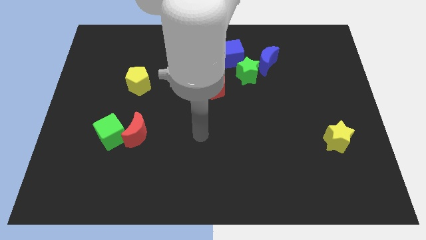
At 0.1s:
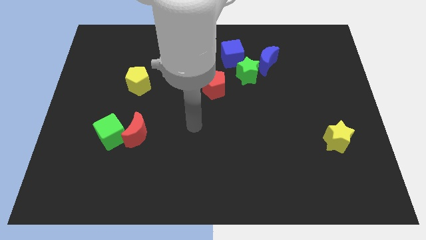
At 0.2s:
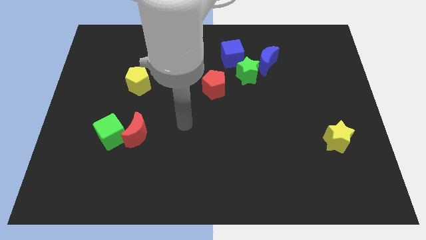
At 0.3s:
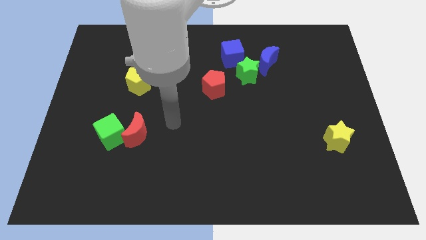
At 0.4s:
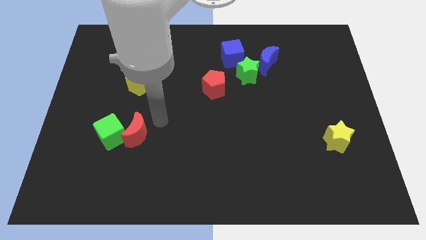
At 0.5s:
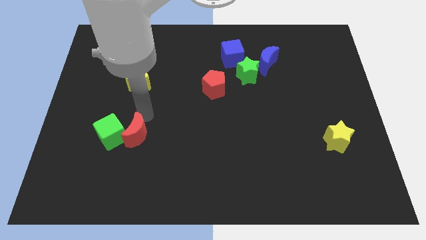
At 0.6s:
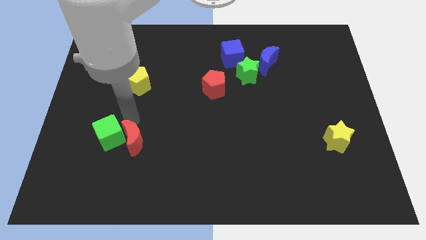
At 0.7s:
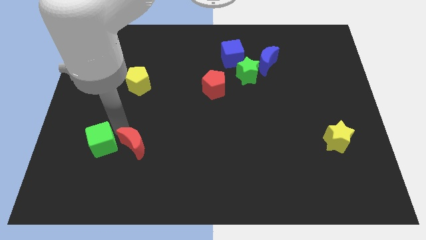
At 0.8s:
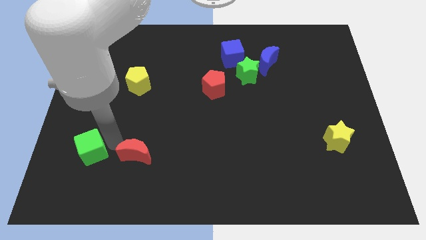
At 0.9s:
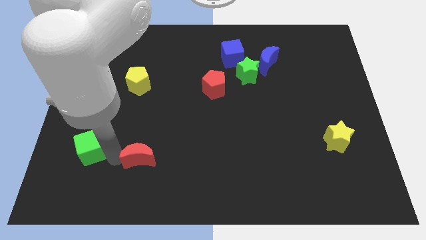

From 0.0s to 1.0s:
move the red moon away from the green cube

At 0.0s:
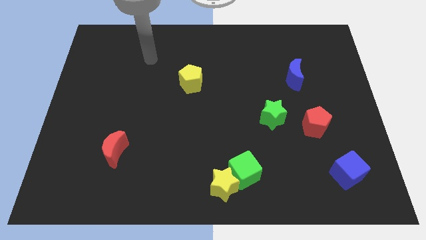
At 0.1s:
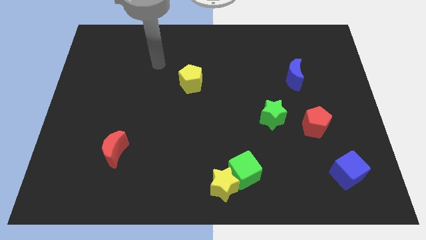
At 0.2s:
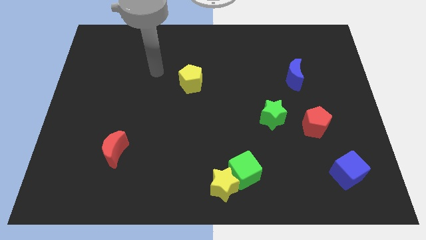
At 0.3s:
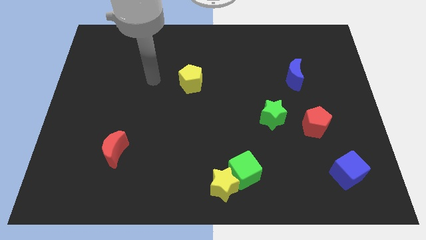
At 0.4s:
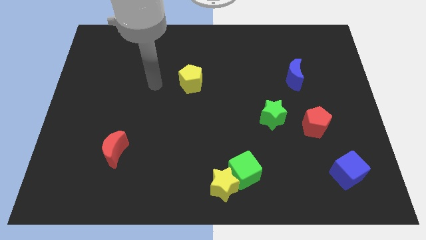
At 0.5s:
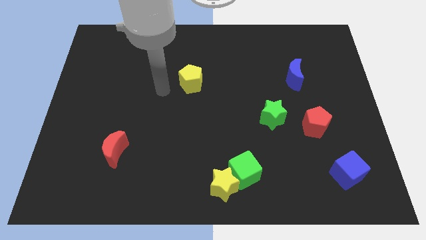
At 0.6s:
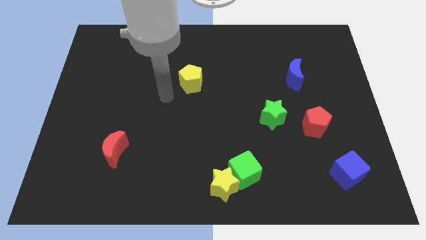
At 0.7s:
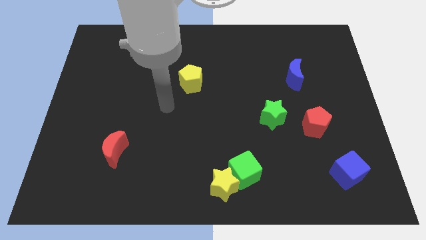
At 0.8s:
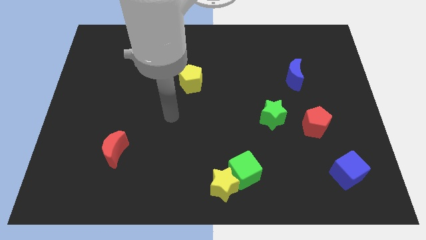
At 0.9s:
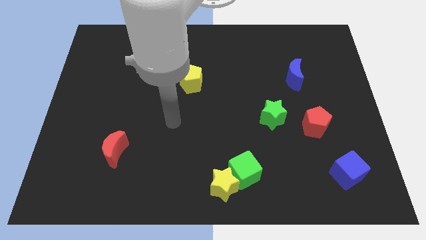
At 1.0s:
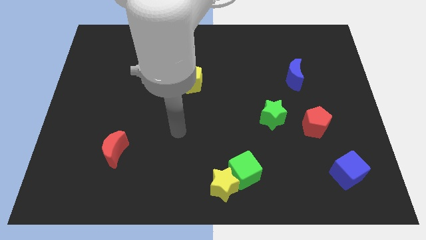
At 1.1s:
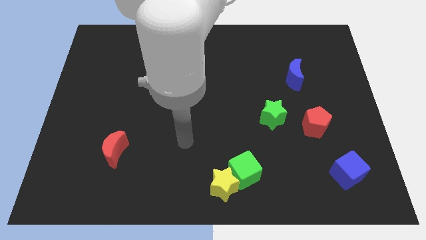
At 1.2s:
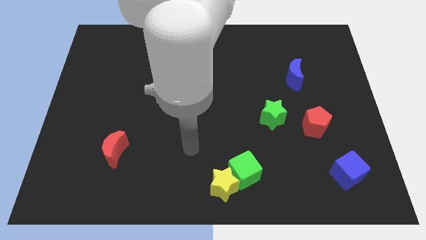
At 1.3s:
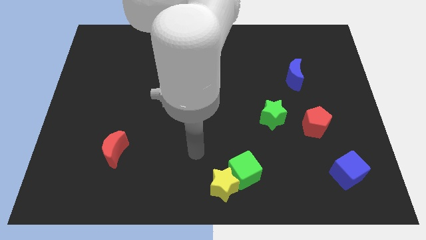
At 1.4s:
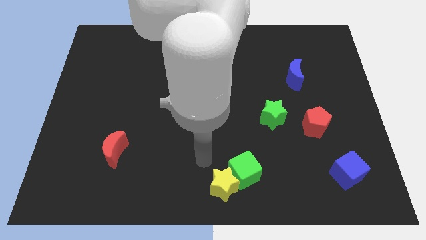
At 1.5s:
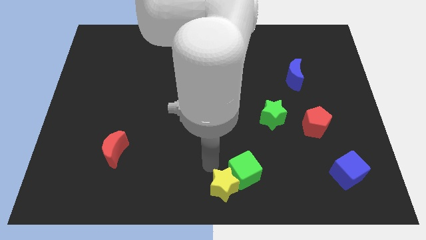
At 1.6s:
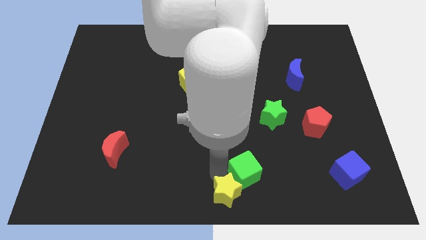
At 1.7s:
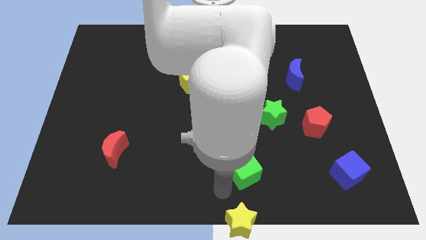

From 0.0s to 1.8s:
separate the green cube from the yellow star

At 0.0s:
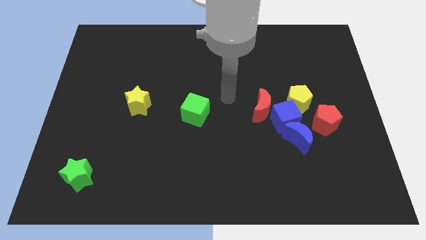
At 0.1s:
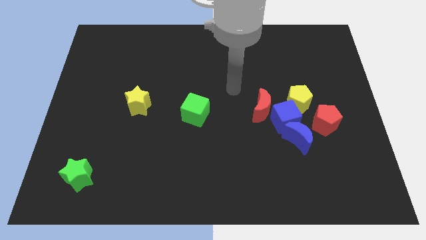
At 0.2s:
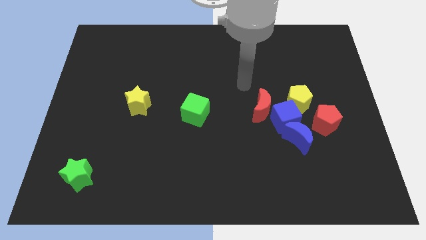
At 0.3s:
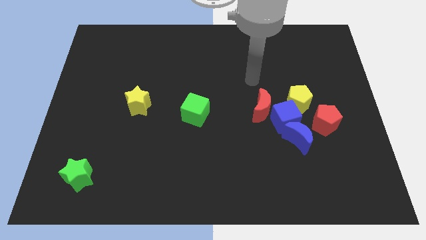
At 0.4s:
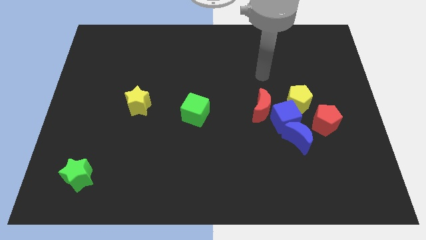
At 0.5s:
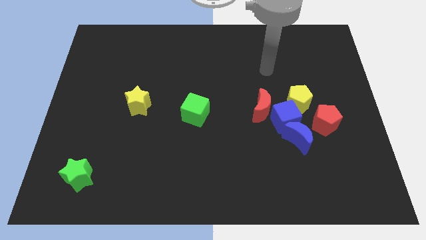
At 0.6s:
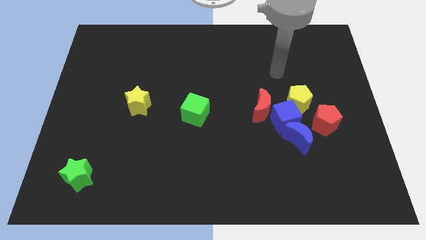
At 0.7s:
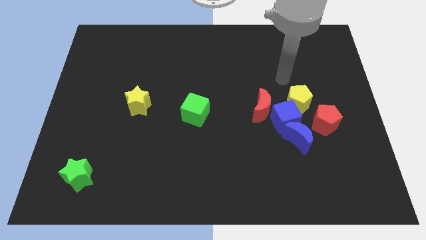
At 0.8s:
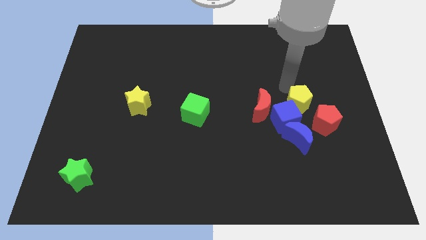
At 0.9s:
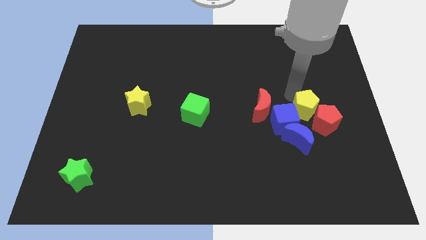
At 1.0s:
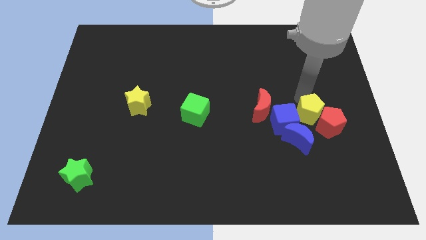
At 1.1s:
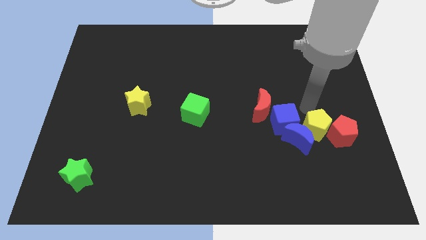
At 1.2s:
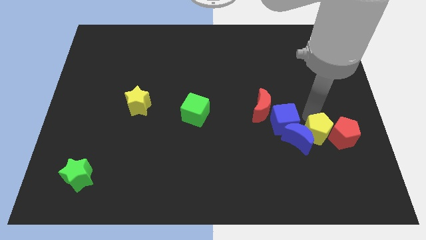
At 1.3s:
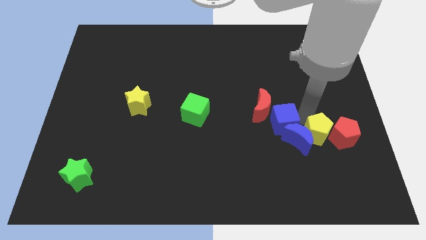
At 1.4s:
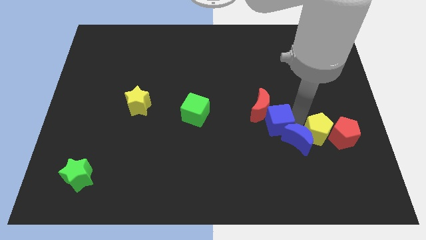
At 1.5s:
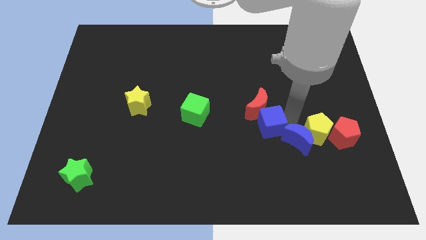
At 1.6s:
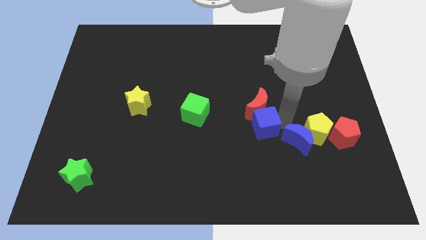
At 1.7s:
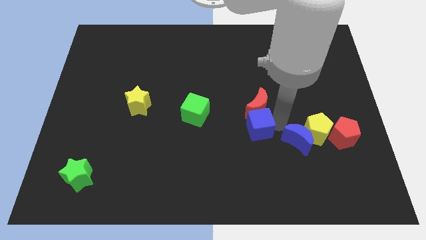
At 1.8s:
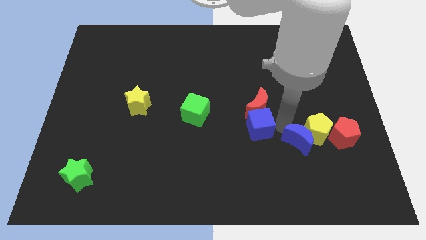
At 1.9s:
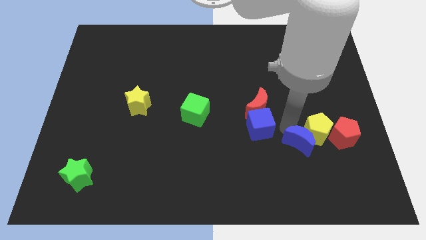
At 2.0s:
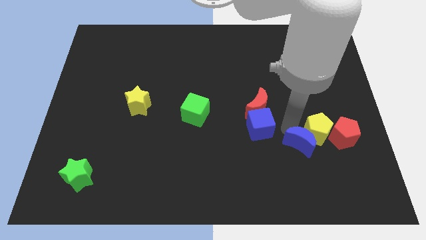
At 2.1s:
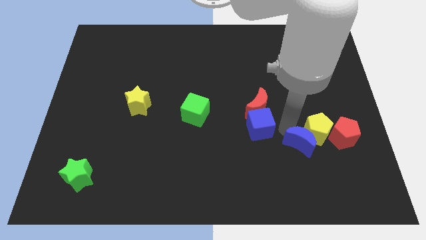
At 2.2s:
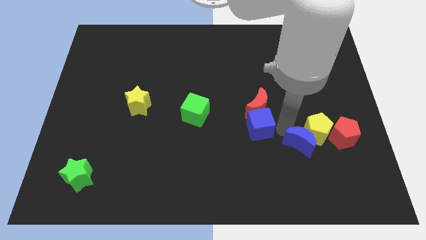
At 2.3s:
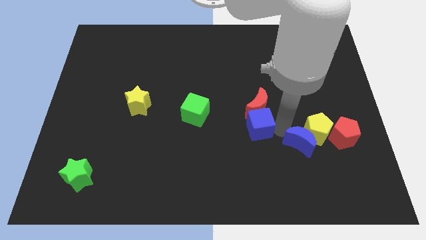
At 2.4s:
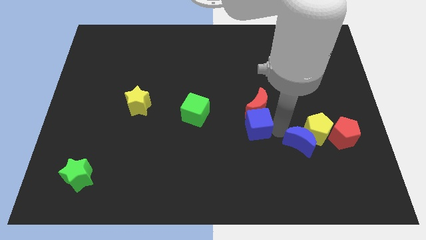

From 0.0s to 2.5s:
move the blue cube away from the group

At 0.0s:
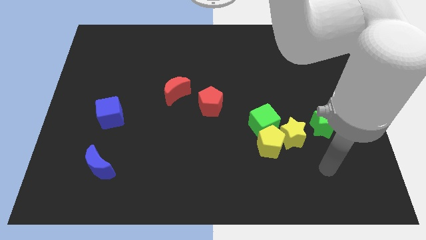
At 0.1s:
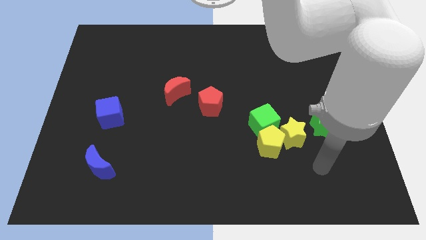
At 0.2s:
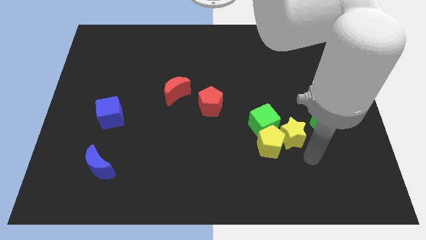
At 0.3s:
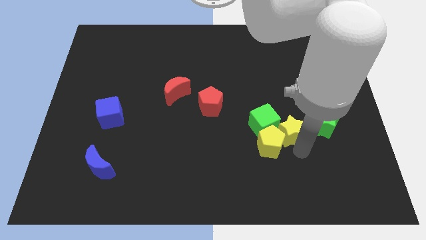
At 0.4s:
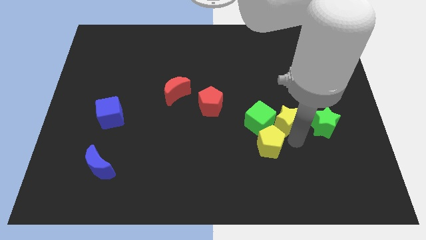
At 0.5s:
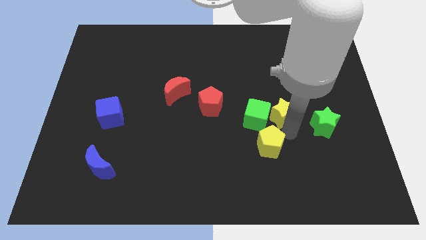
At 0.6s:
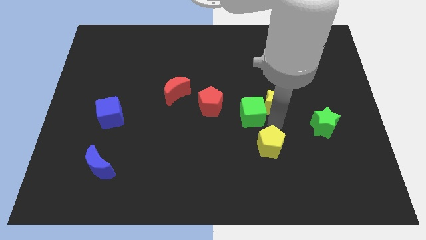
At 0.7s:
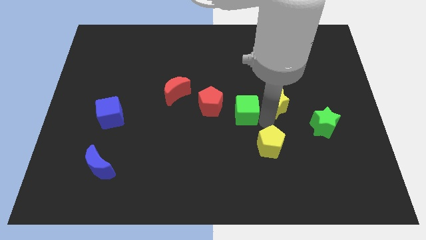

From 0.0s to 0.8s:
separate the yellow pentagon from the green cube and yellow star

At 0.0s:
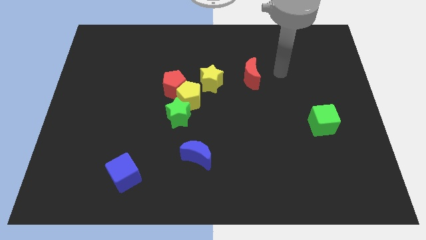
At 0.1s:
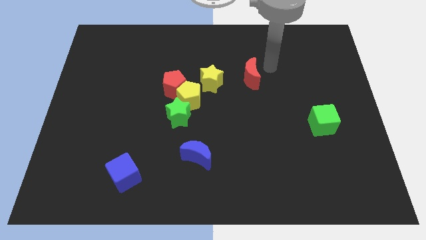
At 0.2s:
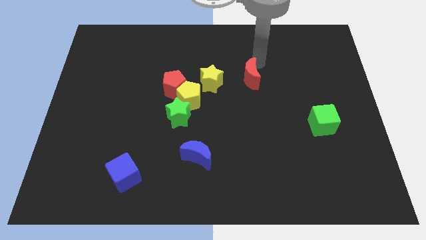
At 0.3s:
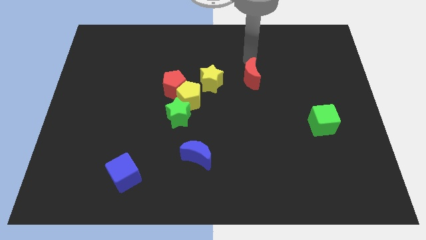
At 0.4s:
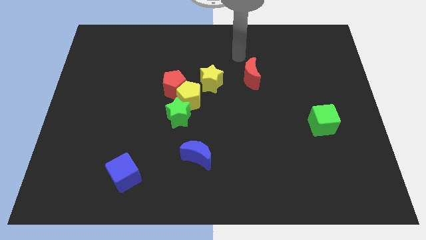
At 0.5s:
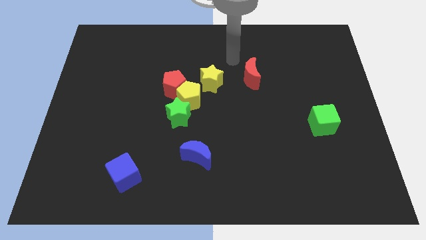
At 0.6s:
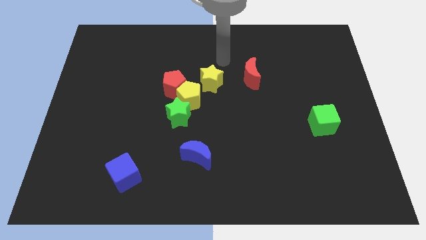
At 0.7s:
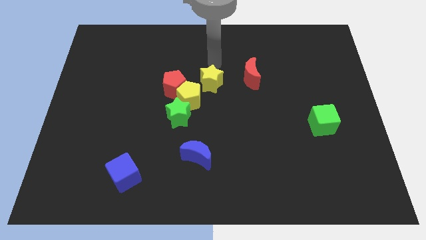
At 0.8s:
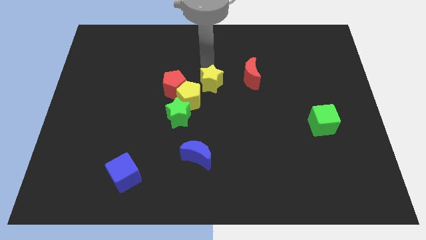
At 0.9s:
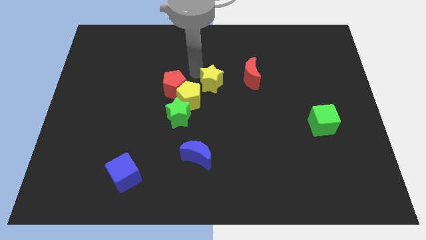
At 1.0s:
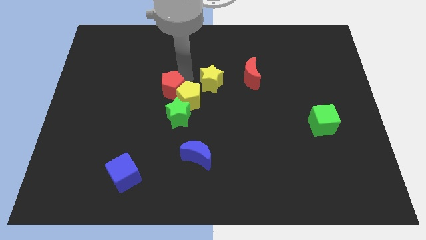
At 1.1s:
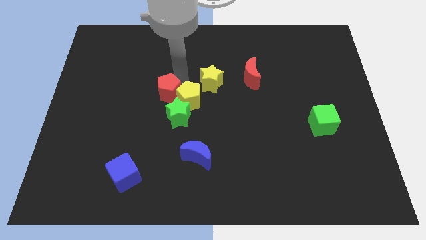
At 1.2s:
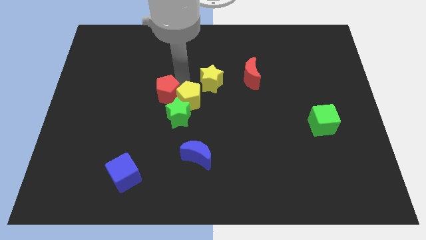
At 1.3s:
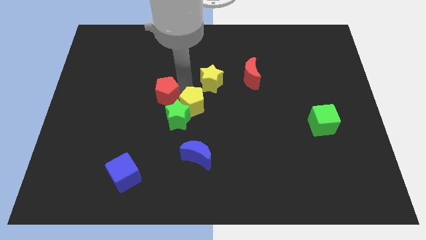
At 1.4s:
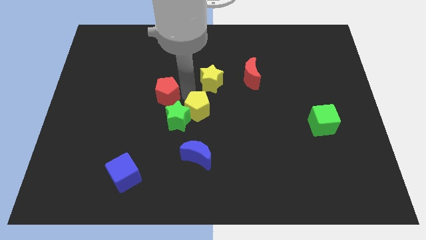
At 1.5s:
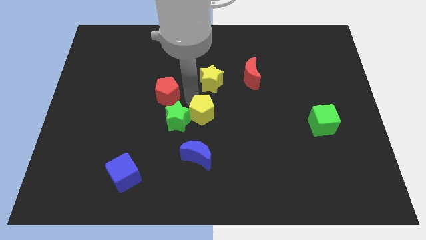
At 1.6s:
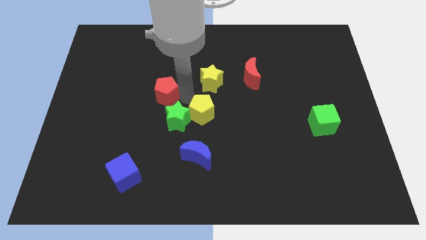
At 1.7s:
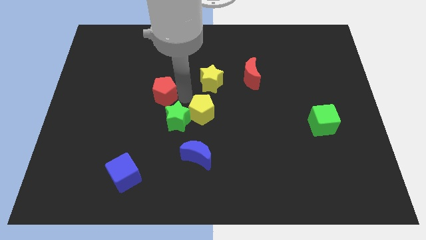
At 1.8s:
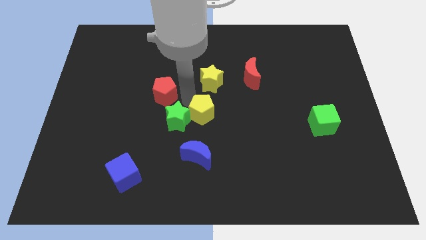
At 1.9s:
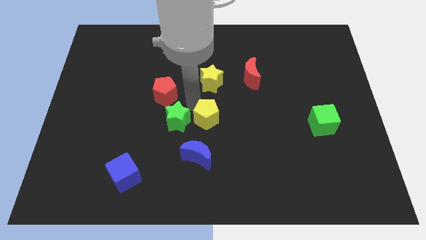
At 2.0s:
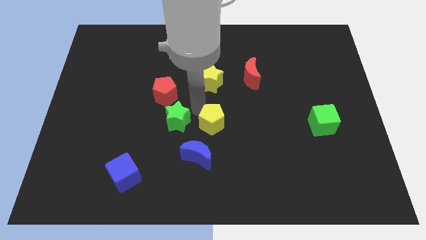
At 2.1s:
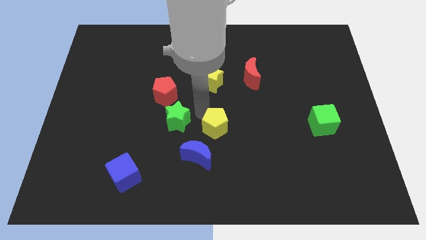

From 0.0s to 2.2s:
pull the yellow pentagon apart from the red pentagon, green star, and yellow star

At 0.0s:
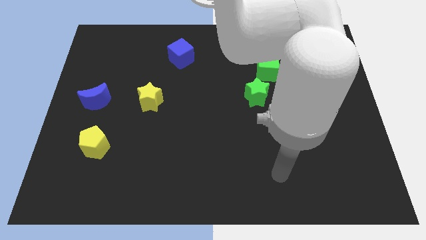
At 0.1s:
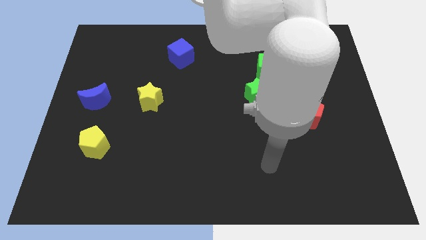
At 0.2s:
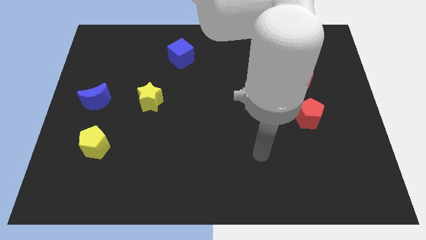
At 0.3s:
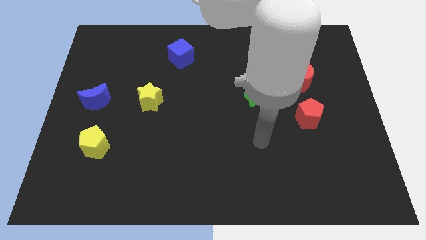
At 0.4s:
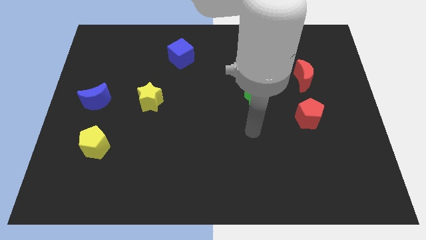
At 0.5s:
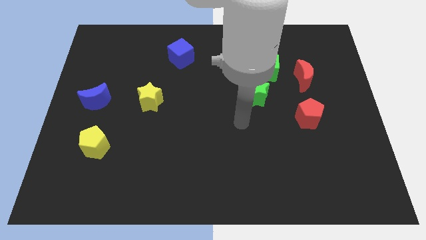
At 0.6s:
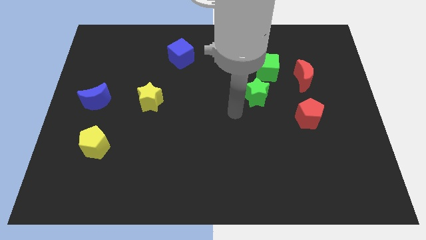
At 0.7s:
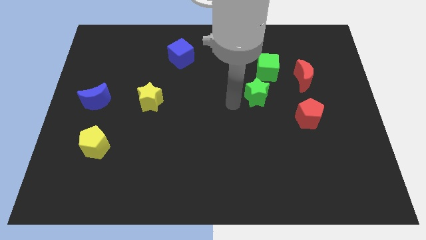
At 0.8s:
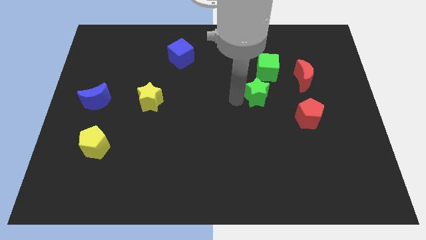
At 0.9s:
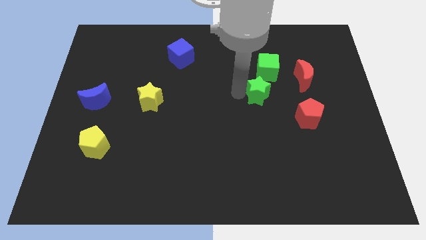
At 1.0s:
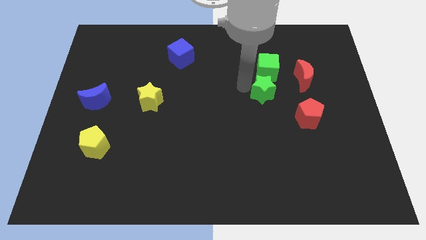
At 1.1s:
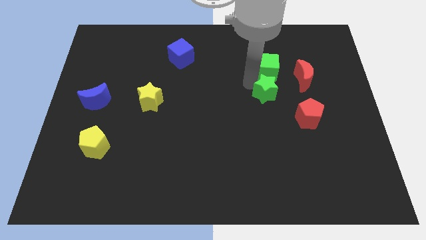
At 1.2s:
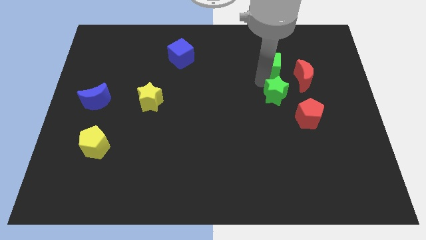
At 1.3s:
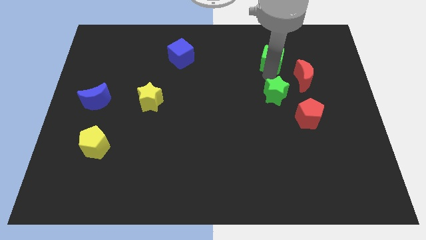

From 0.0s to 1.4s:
move the green star away from the green cube
